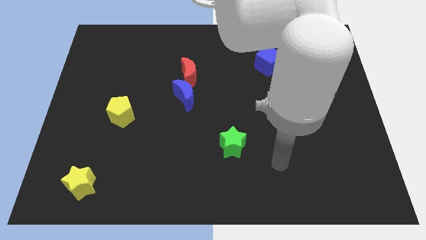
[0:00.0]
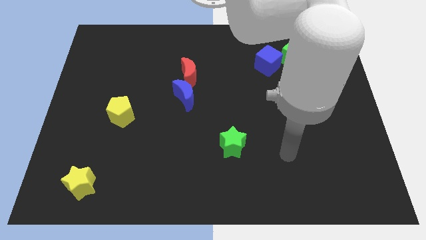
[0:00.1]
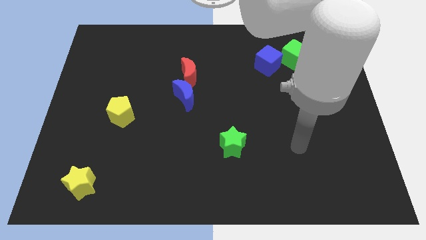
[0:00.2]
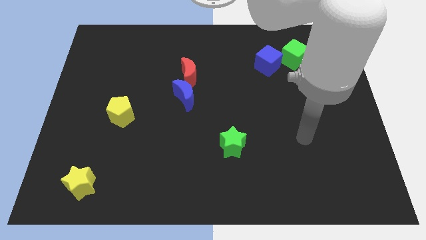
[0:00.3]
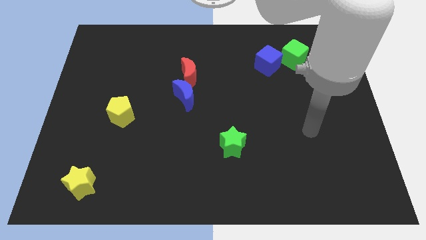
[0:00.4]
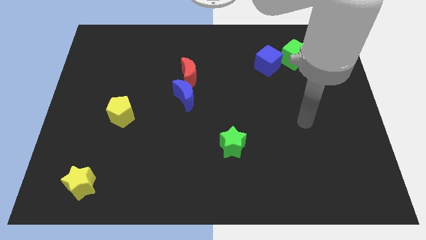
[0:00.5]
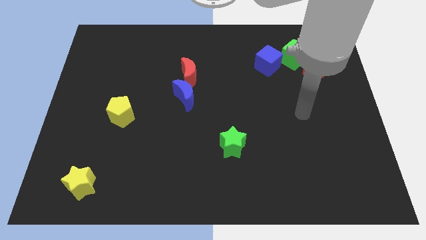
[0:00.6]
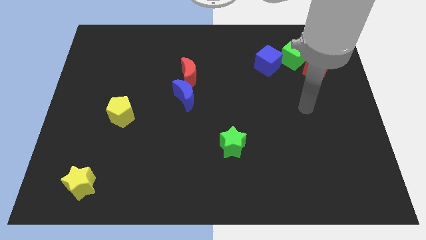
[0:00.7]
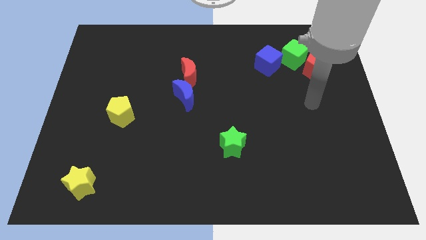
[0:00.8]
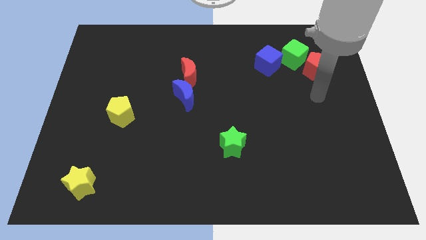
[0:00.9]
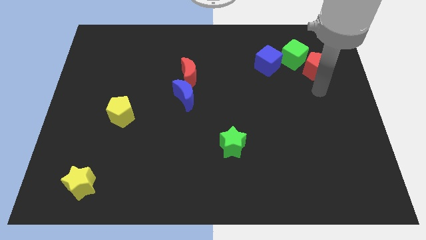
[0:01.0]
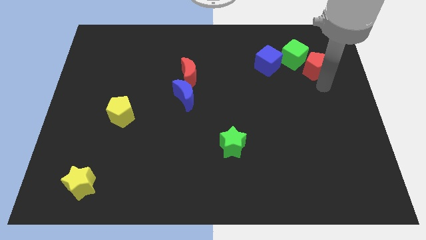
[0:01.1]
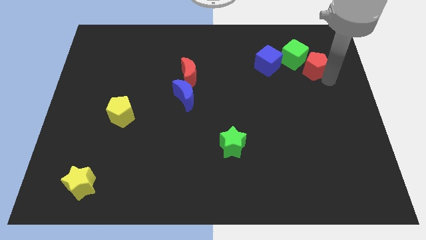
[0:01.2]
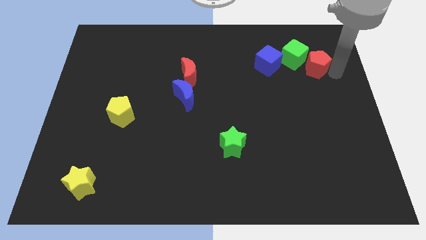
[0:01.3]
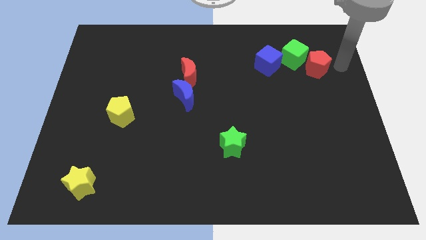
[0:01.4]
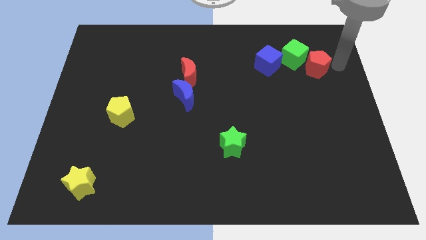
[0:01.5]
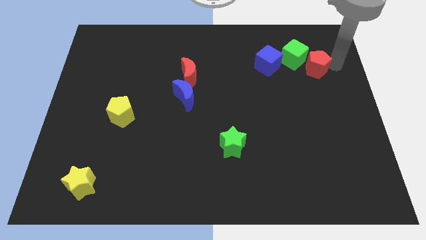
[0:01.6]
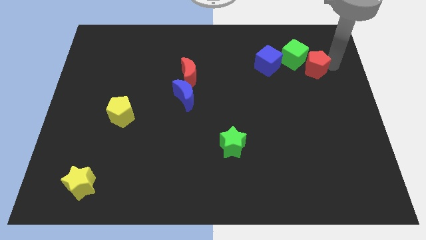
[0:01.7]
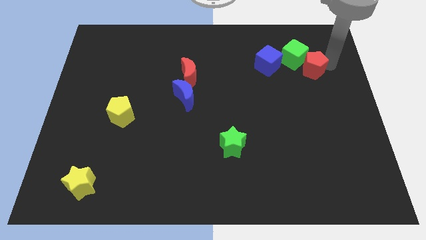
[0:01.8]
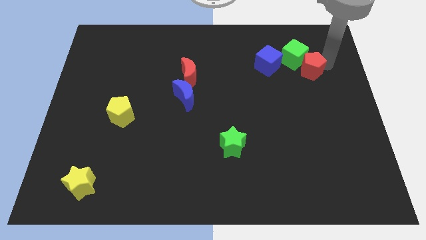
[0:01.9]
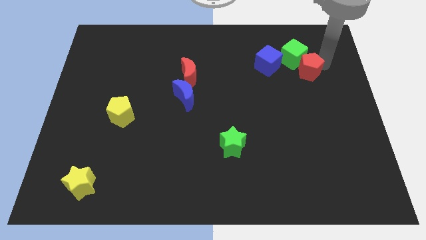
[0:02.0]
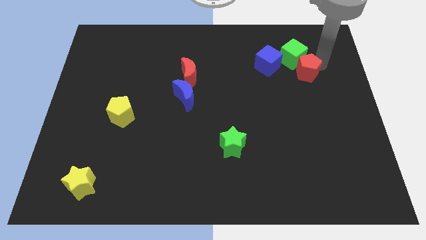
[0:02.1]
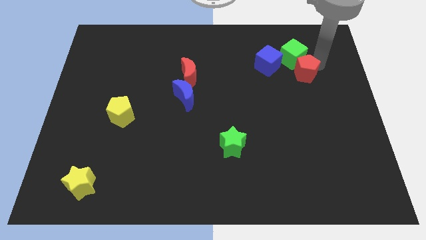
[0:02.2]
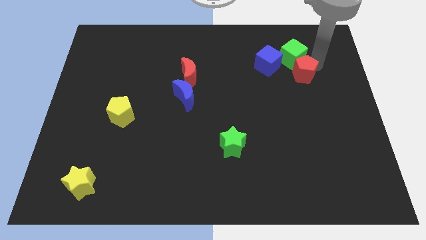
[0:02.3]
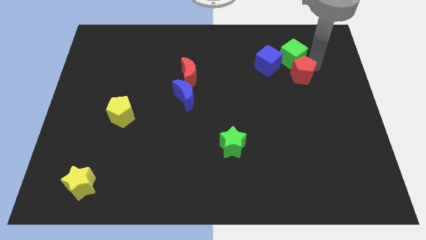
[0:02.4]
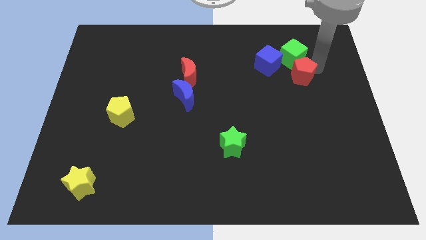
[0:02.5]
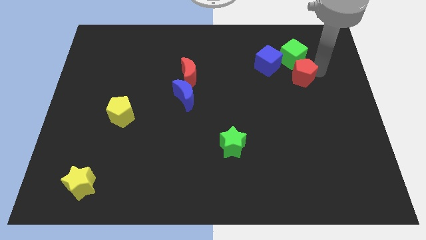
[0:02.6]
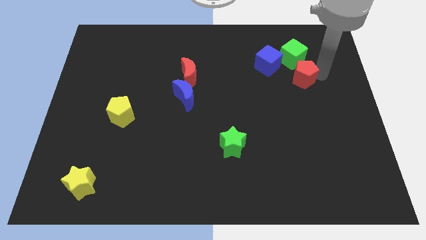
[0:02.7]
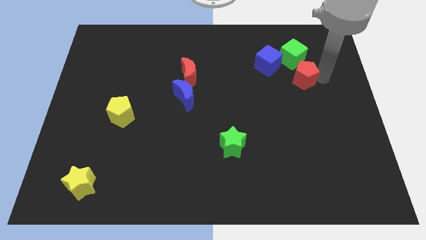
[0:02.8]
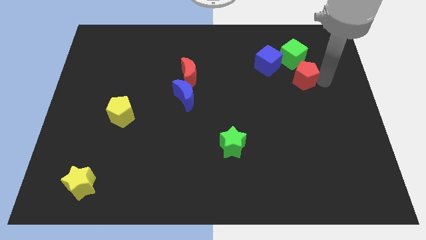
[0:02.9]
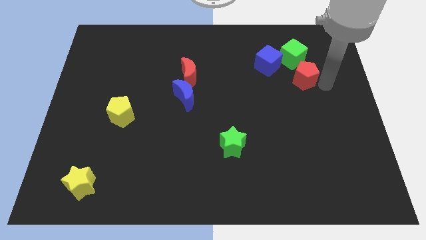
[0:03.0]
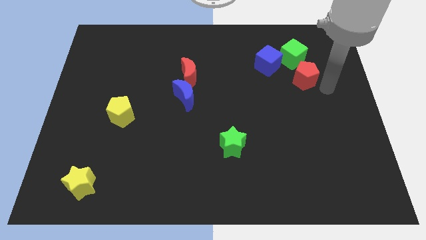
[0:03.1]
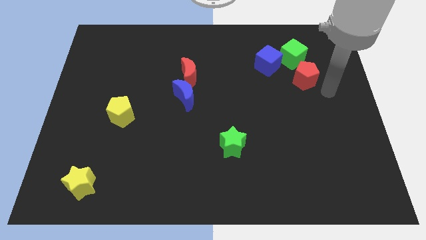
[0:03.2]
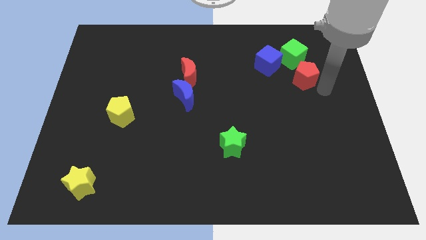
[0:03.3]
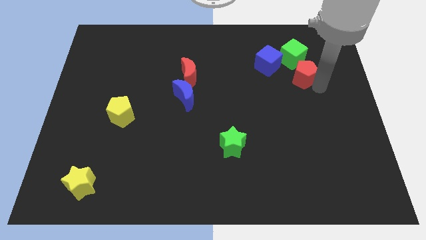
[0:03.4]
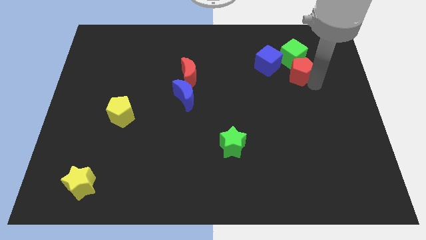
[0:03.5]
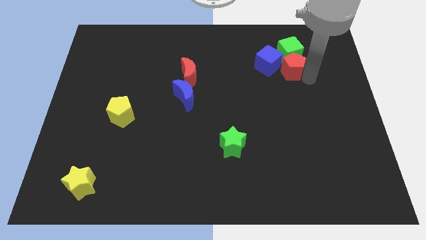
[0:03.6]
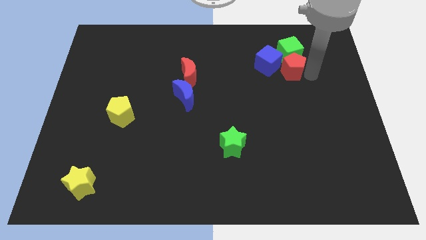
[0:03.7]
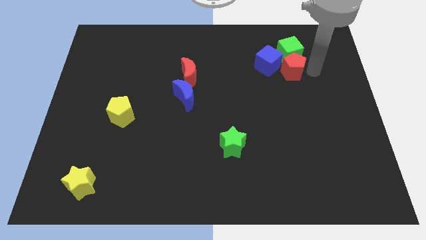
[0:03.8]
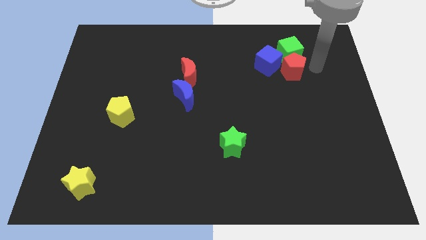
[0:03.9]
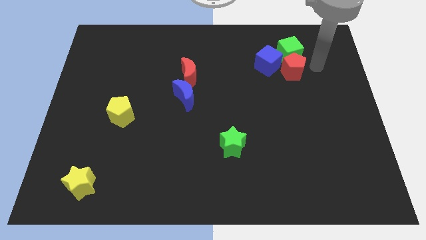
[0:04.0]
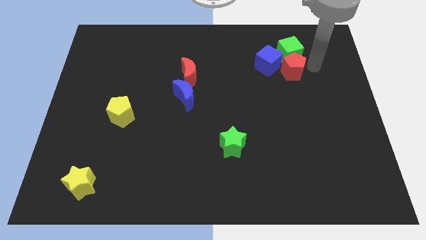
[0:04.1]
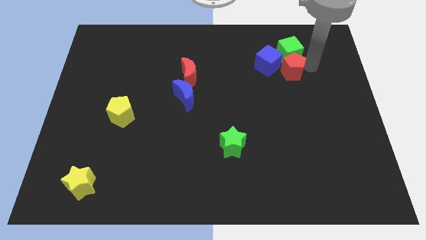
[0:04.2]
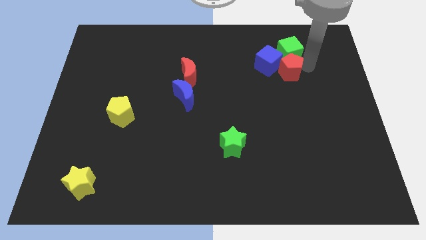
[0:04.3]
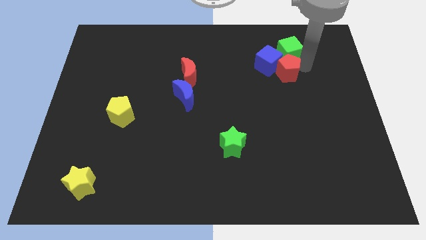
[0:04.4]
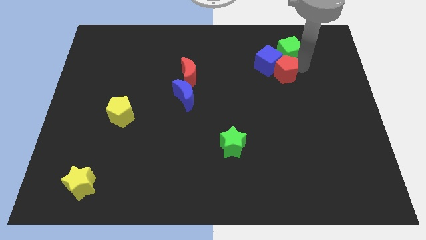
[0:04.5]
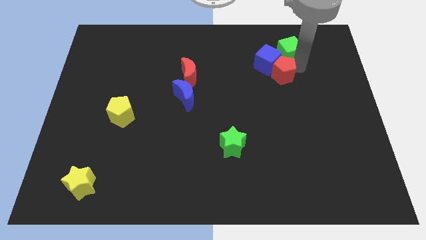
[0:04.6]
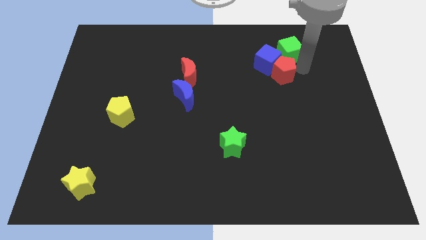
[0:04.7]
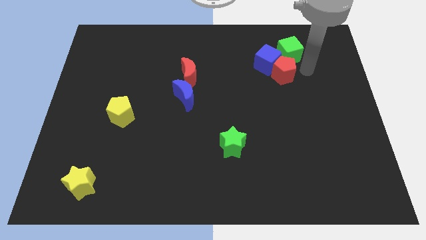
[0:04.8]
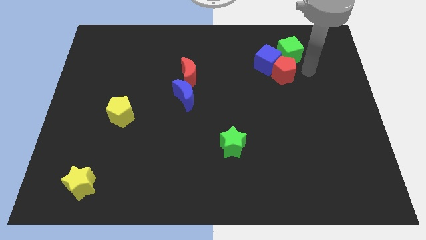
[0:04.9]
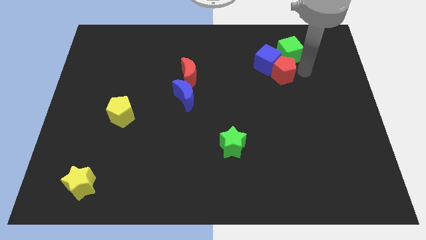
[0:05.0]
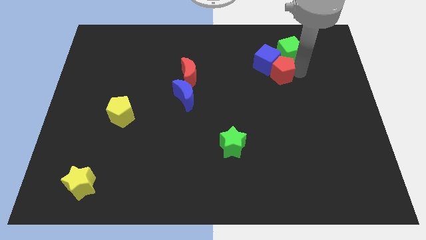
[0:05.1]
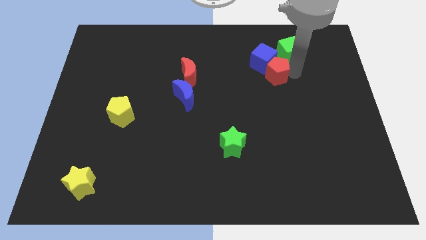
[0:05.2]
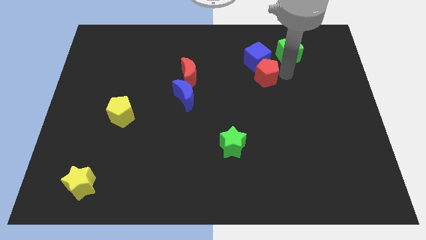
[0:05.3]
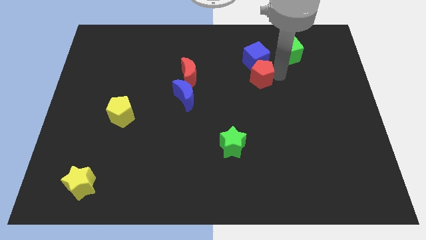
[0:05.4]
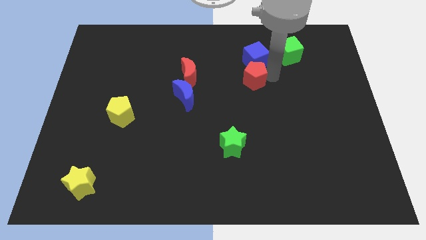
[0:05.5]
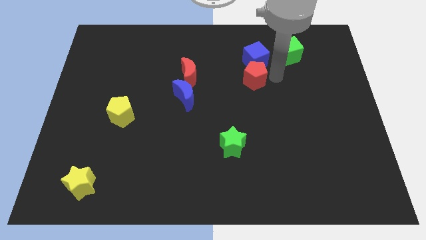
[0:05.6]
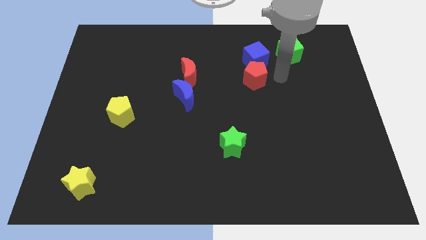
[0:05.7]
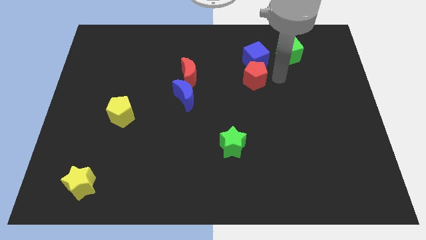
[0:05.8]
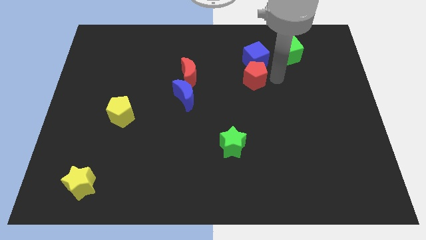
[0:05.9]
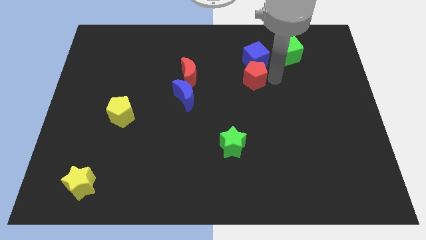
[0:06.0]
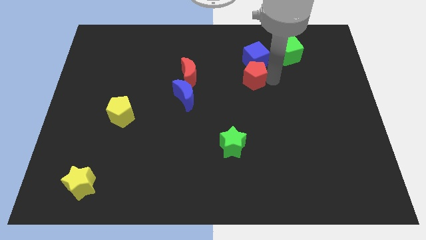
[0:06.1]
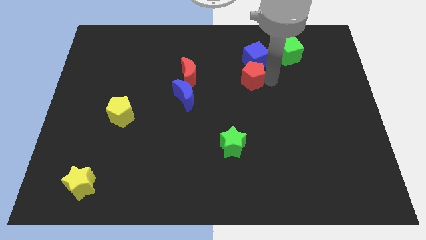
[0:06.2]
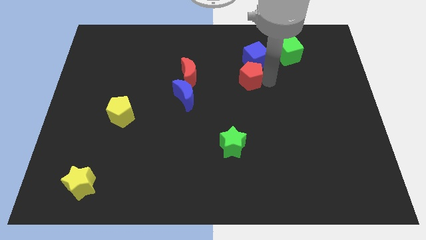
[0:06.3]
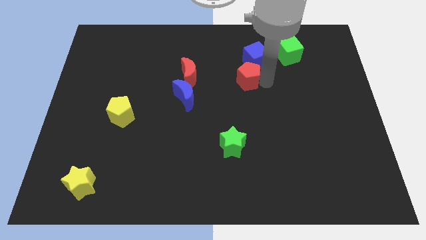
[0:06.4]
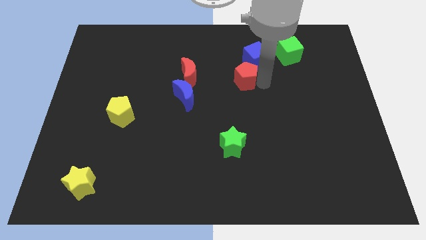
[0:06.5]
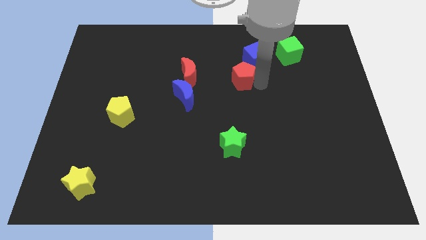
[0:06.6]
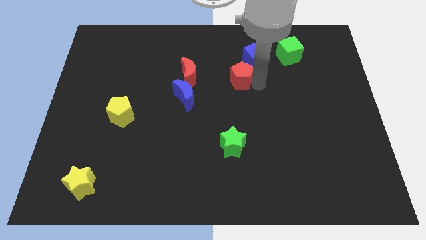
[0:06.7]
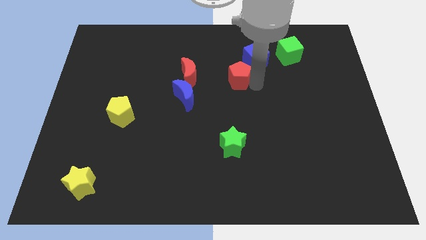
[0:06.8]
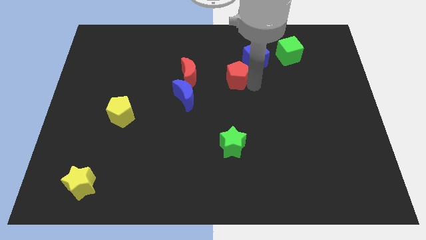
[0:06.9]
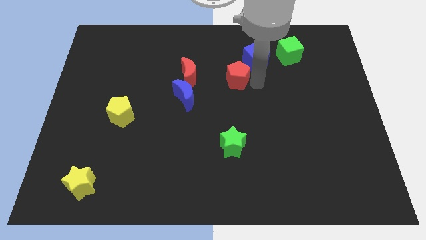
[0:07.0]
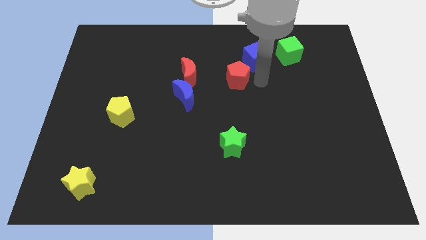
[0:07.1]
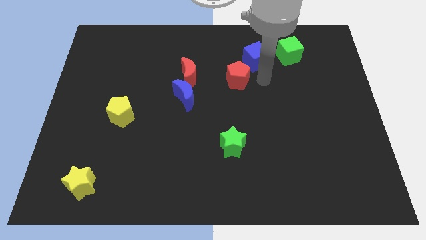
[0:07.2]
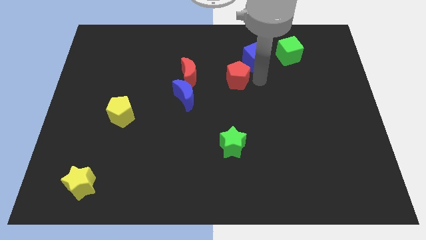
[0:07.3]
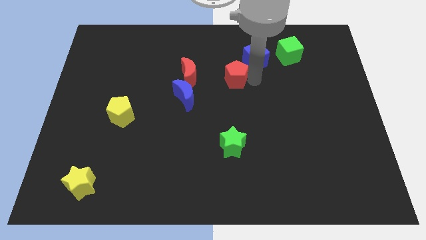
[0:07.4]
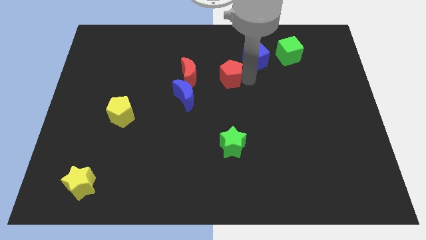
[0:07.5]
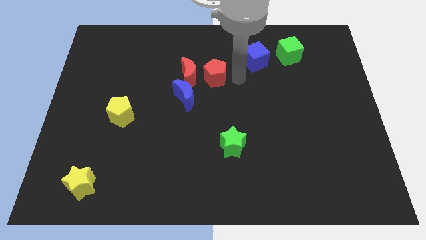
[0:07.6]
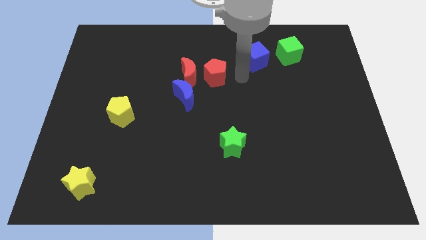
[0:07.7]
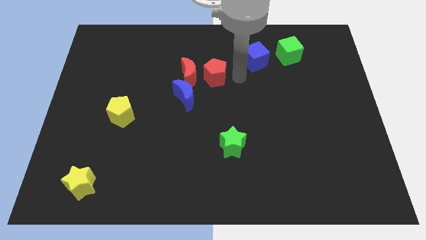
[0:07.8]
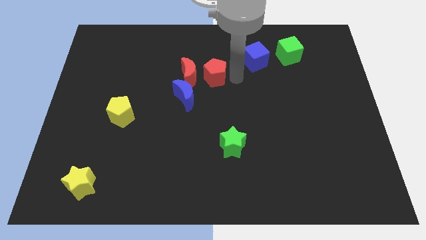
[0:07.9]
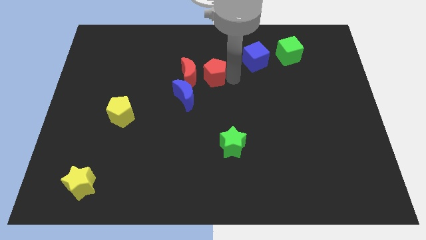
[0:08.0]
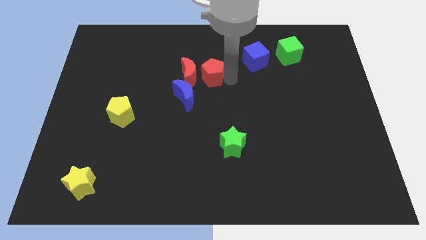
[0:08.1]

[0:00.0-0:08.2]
put the red pentagon next to the red moon
